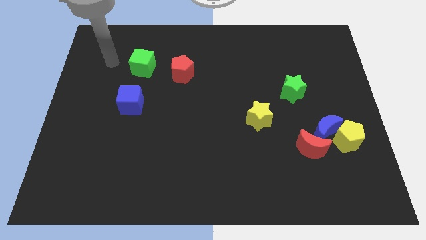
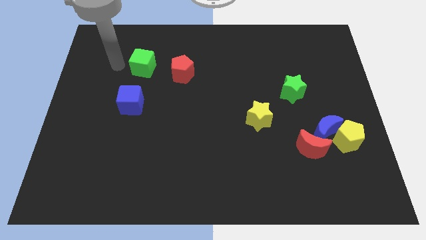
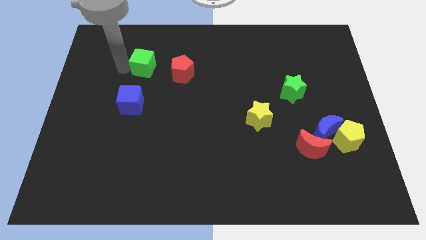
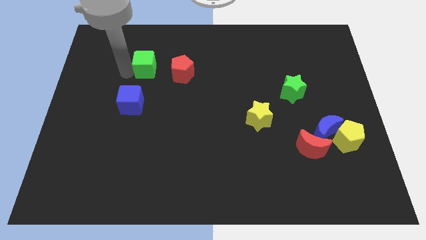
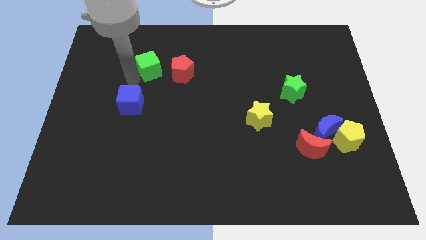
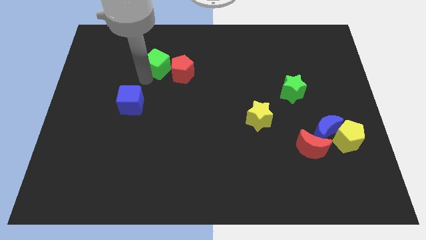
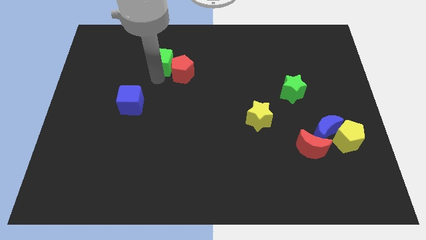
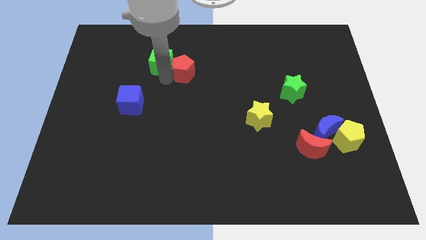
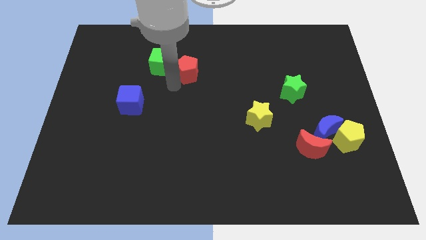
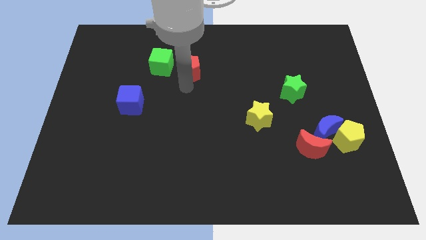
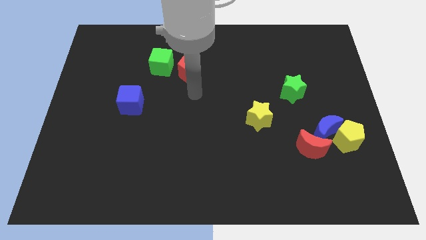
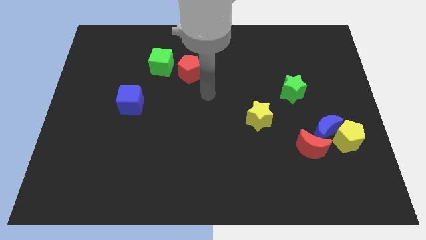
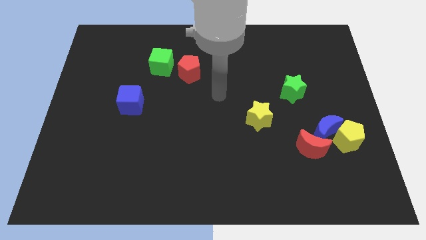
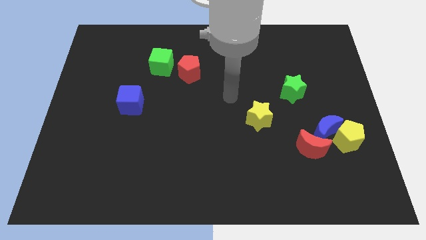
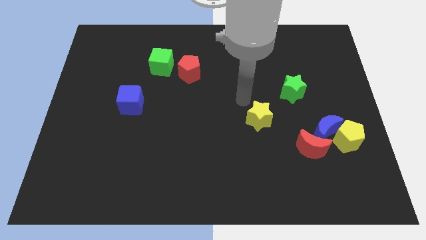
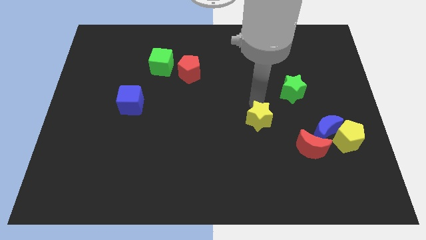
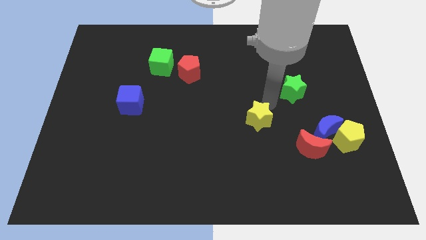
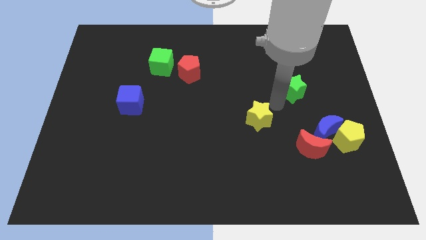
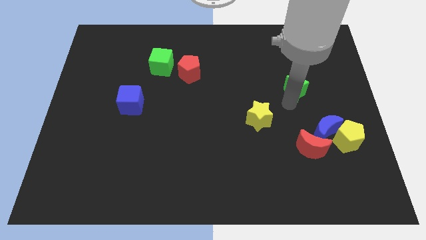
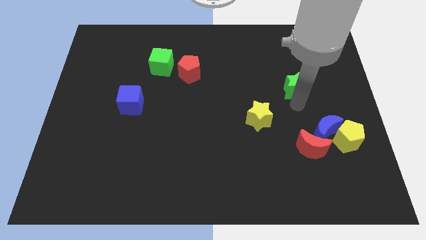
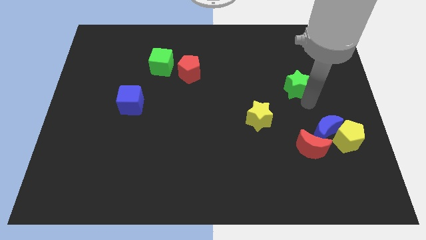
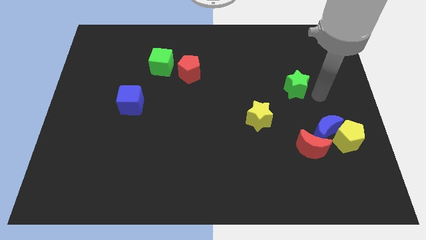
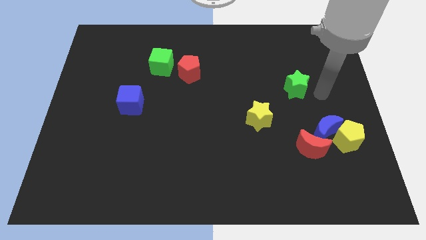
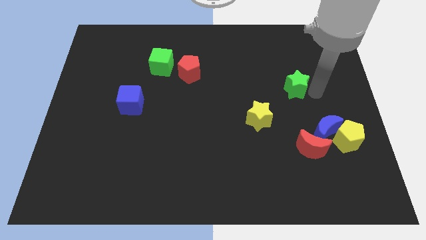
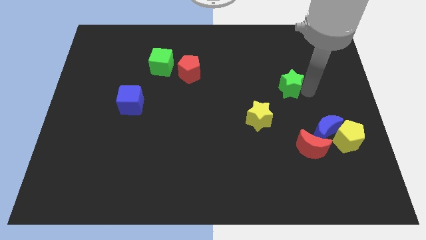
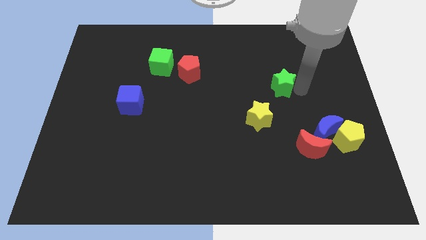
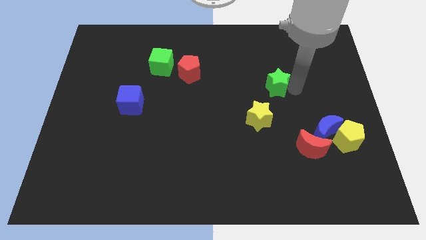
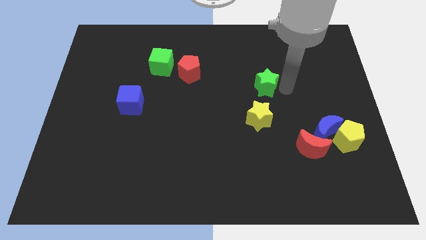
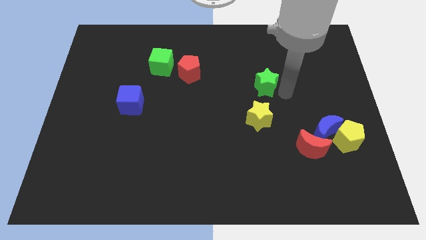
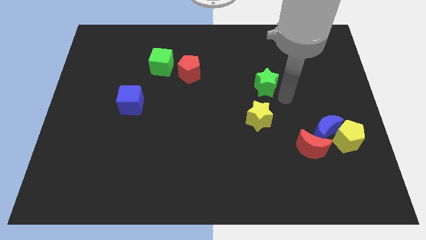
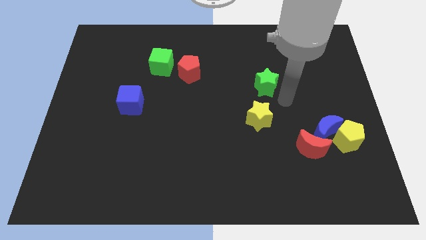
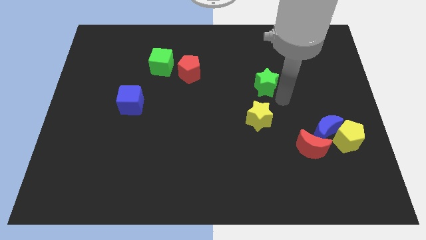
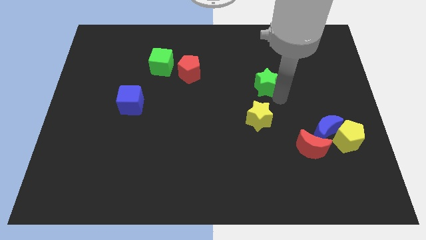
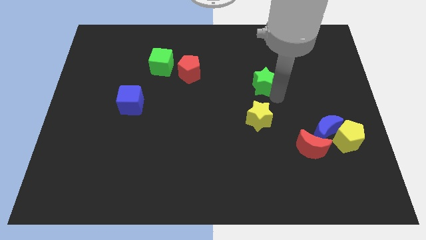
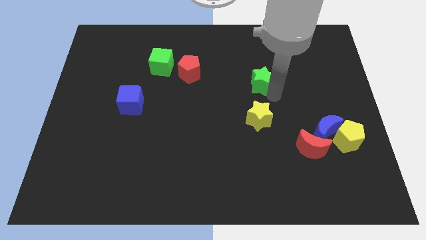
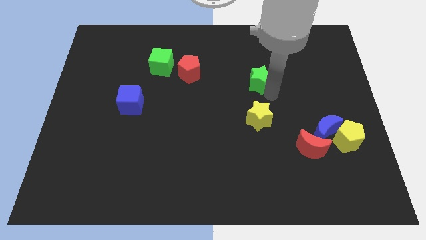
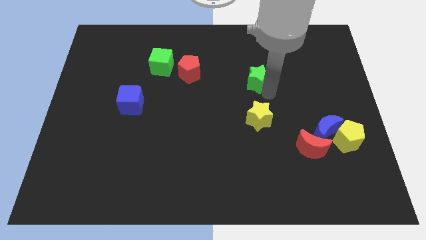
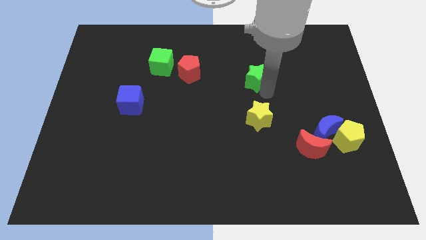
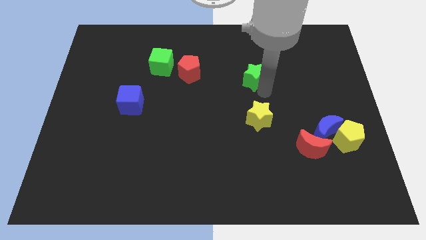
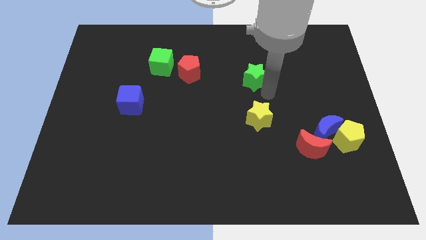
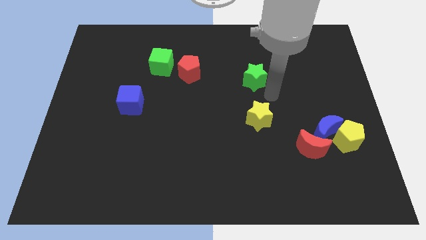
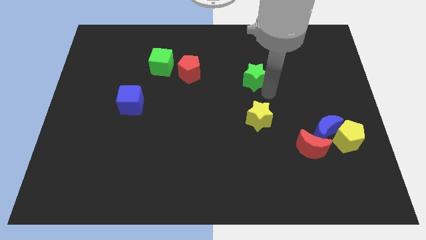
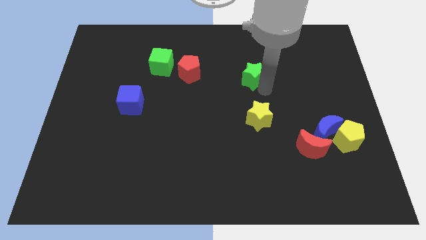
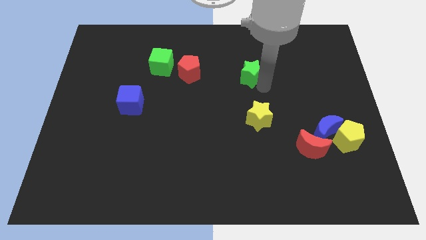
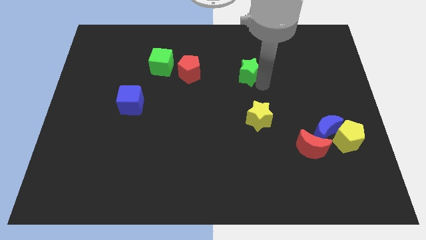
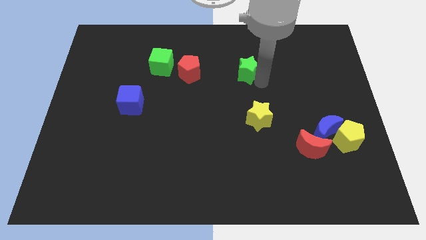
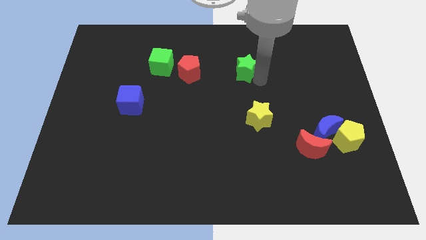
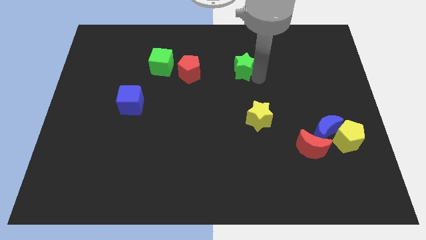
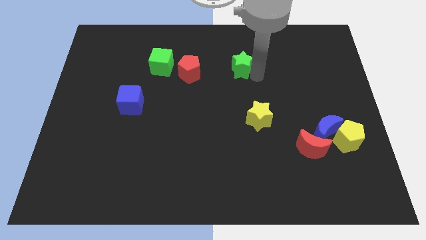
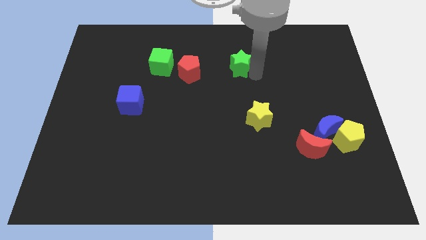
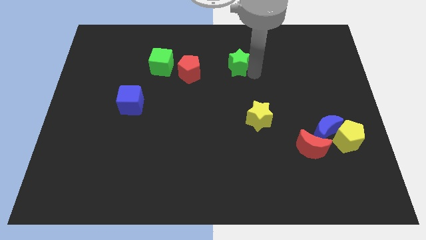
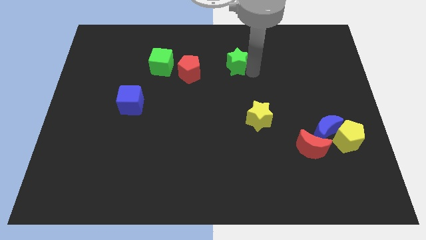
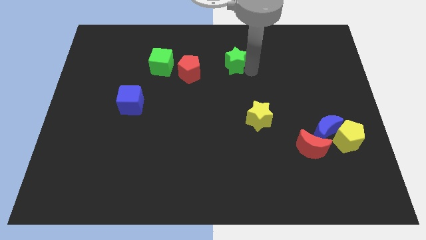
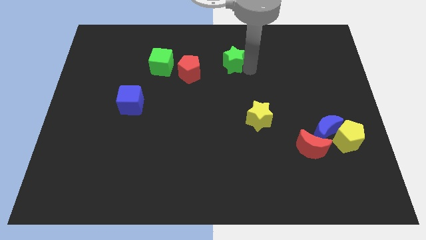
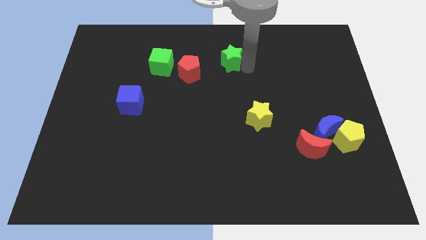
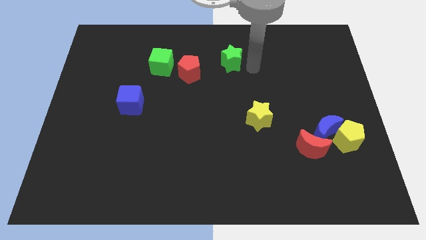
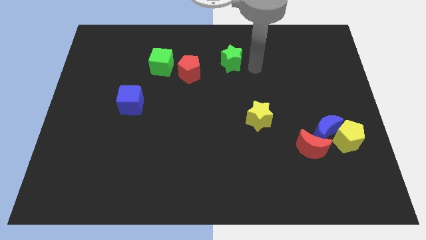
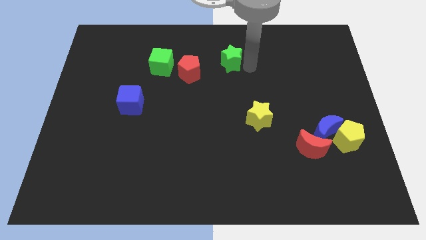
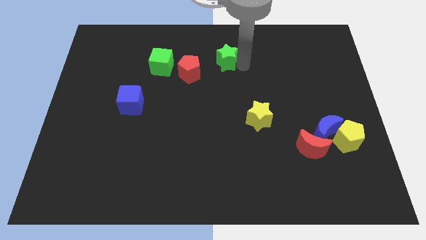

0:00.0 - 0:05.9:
slide the green star diagonally up and to the right of the red pentagon

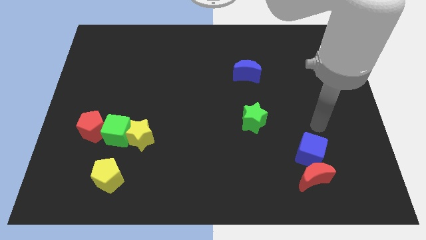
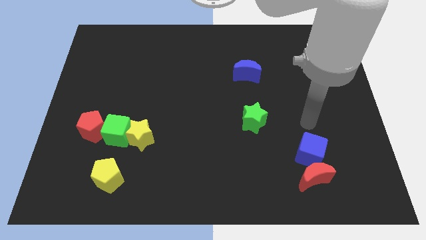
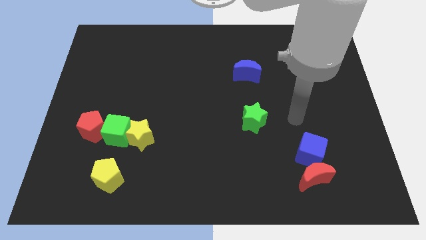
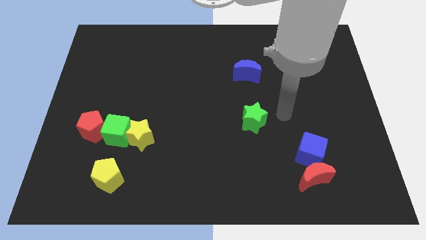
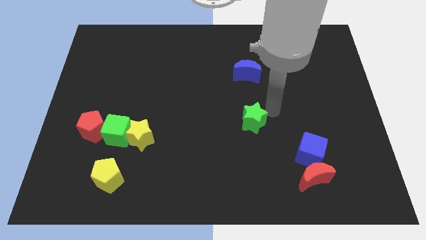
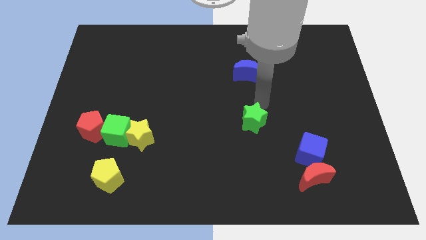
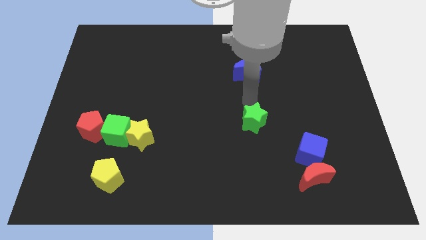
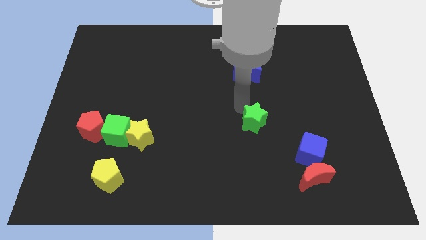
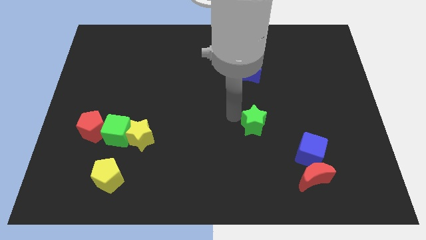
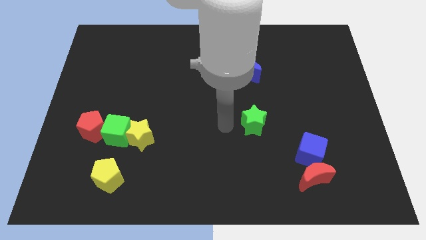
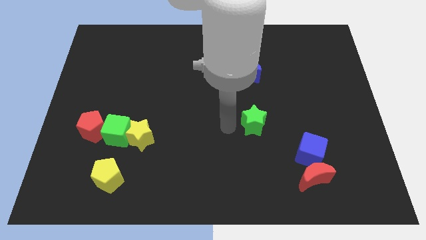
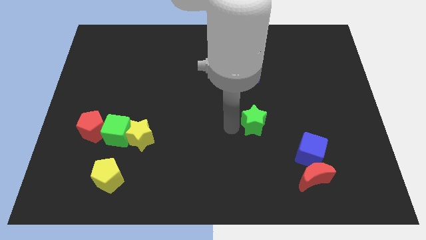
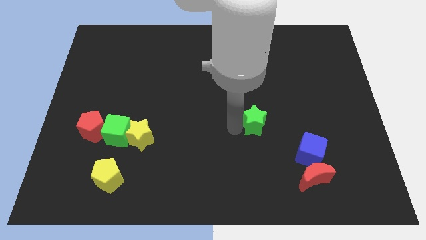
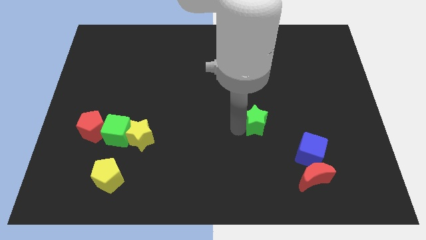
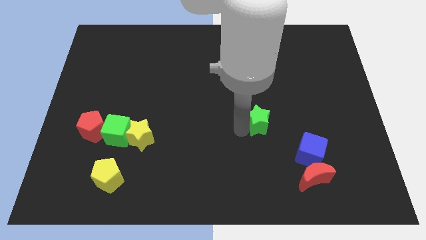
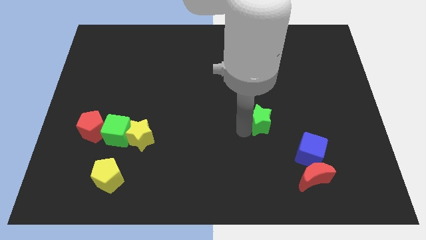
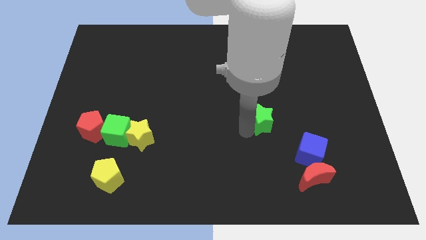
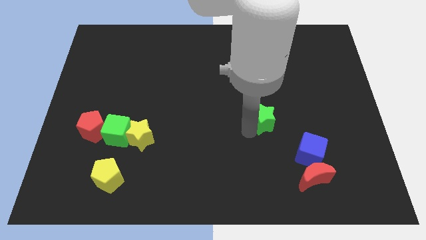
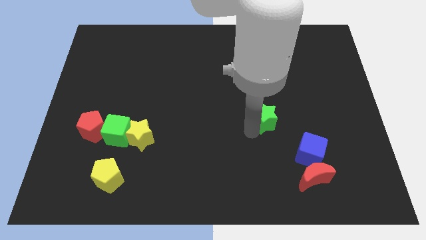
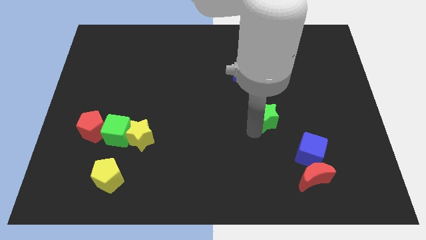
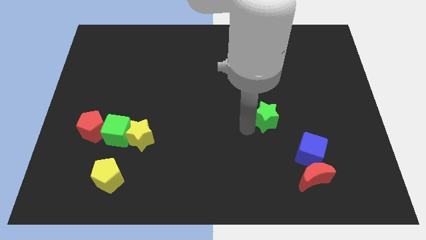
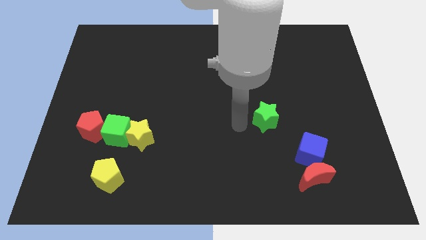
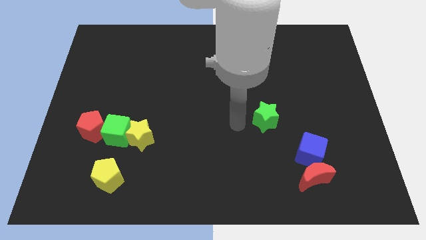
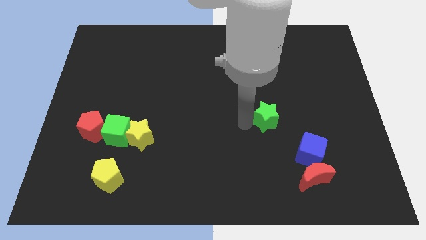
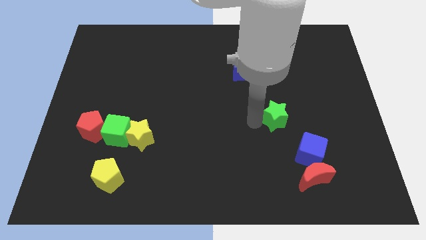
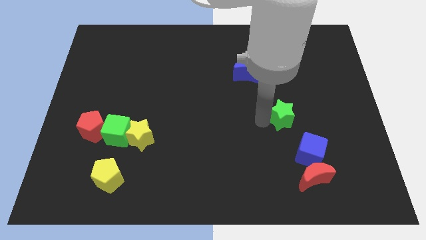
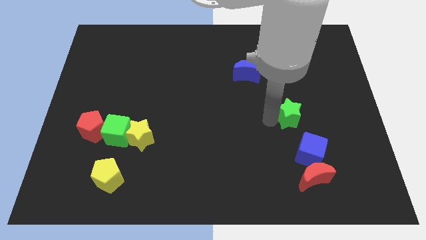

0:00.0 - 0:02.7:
slide the green star to the top of the blue cube
